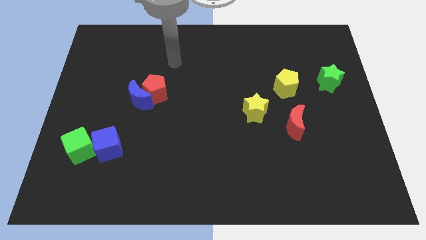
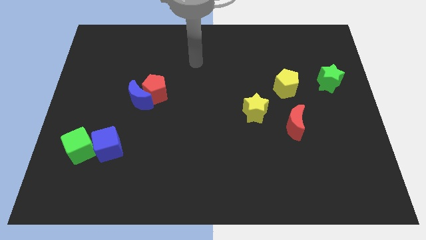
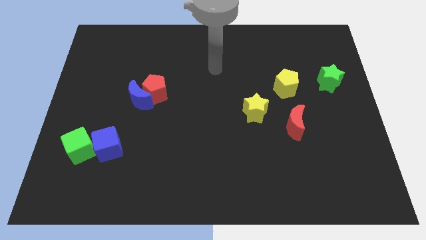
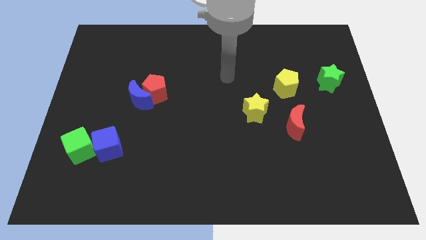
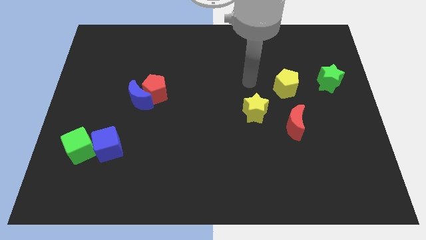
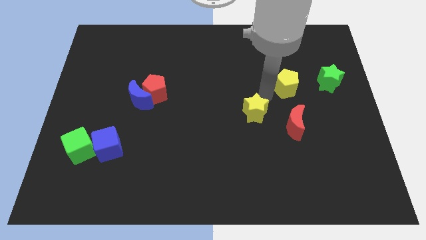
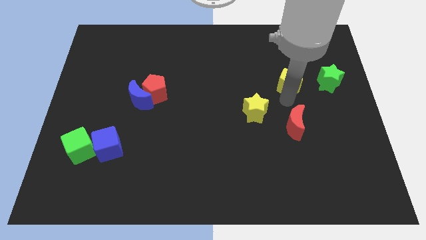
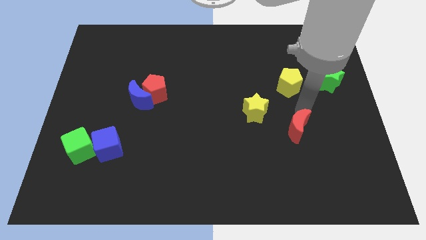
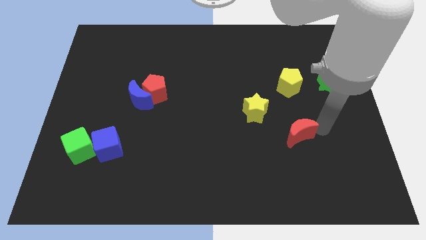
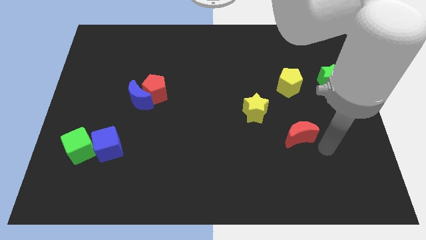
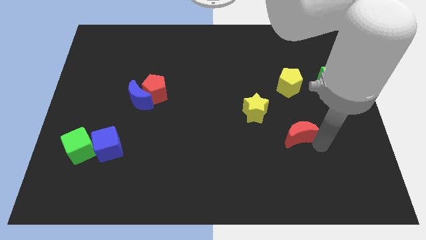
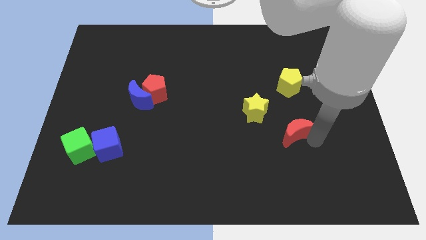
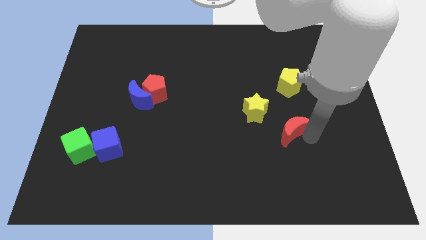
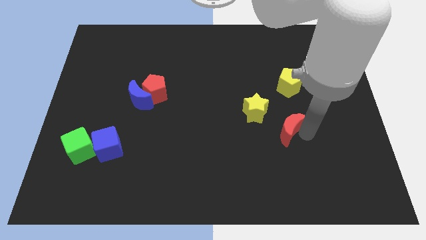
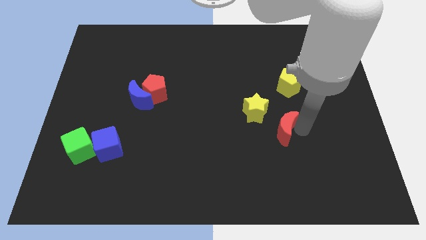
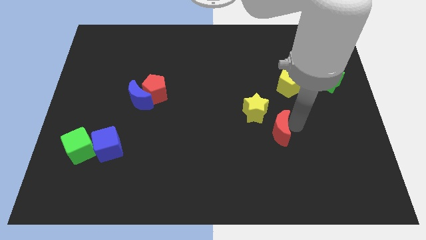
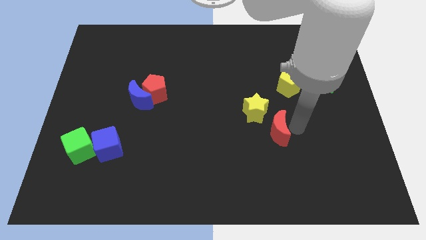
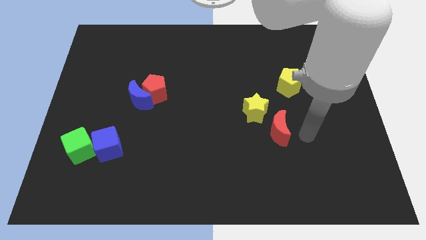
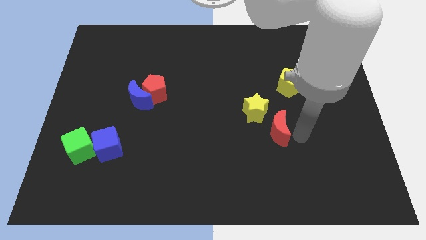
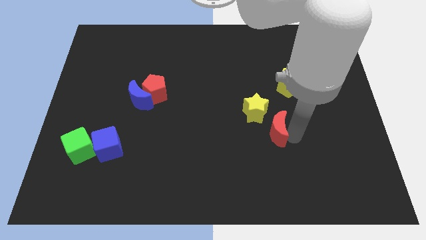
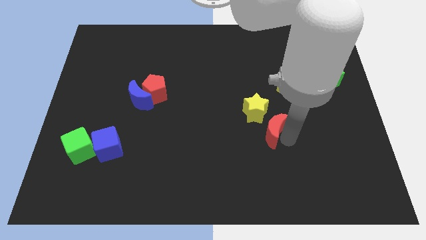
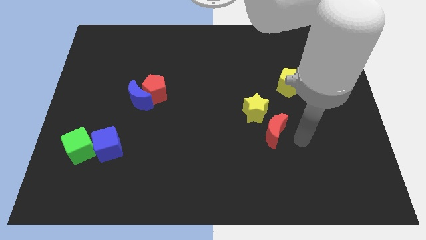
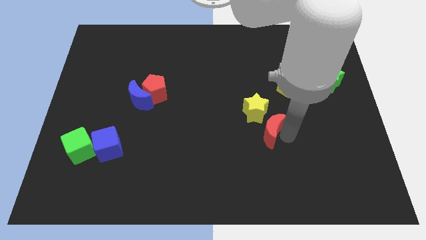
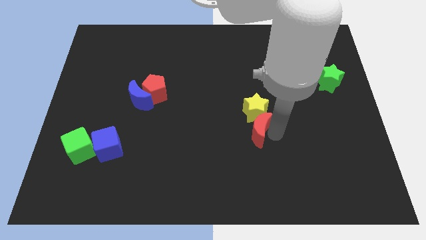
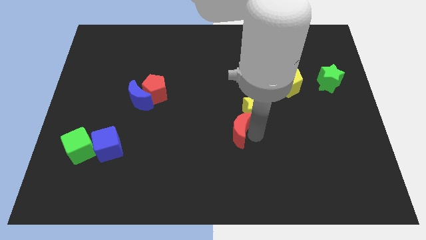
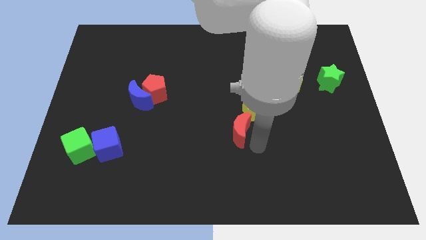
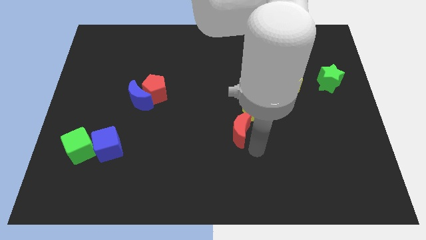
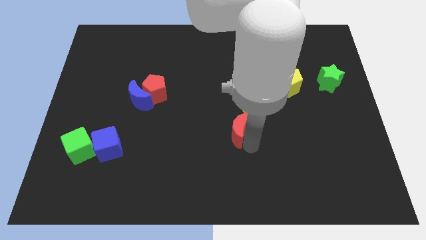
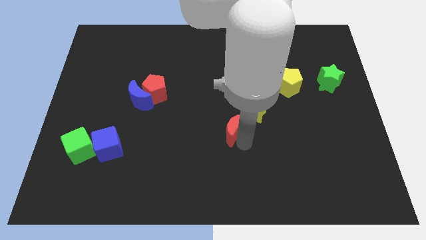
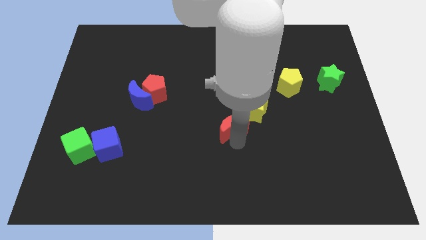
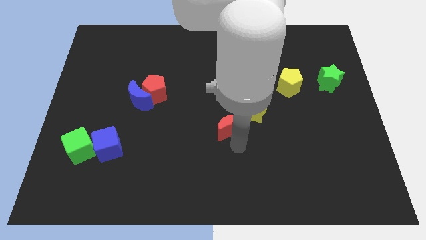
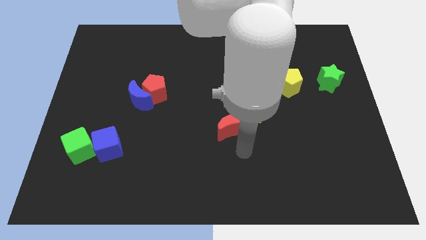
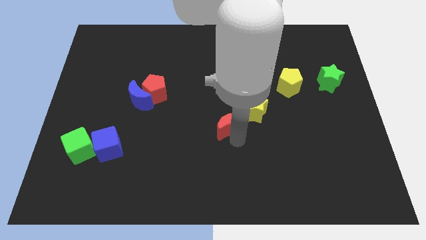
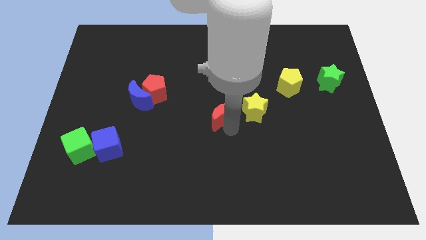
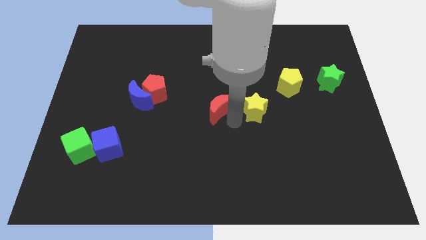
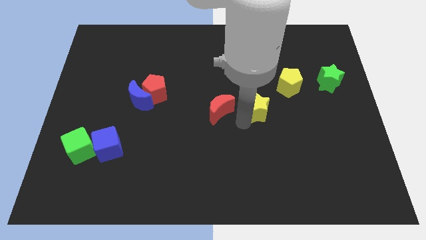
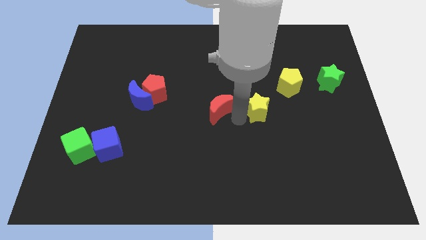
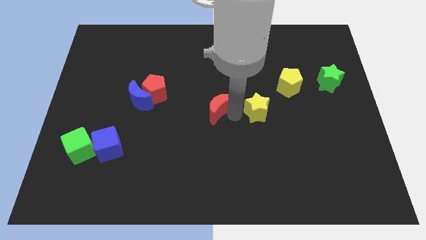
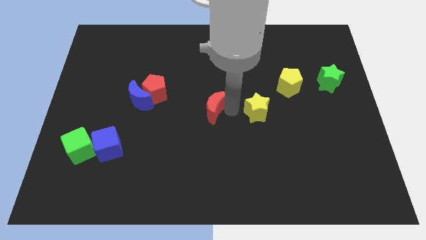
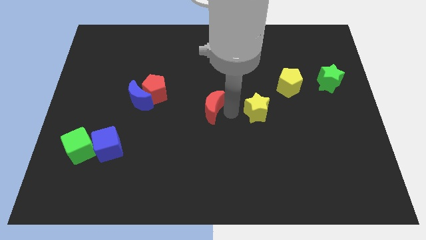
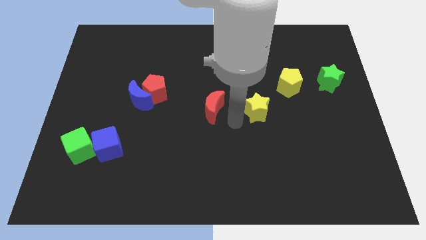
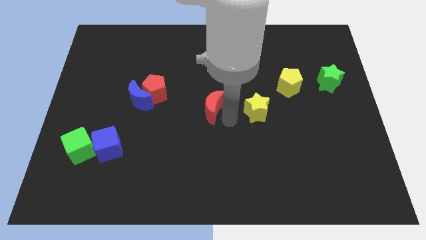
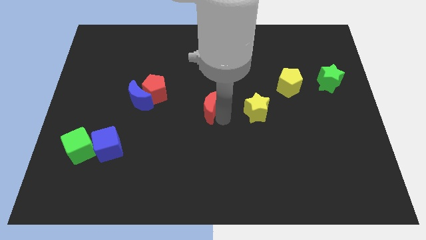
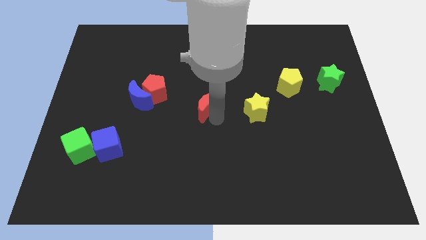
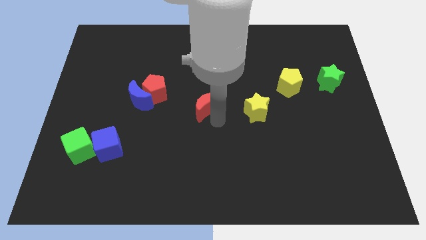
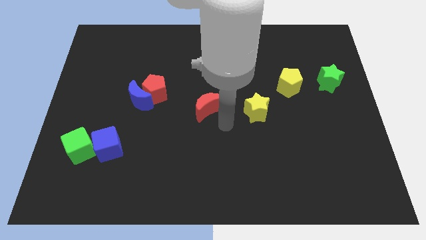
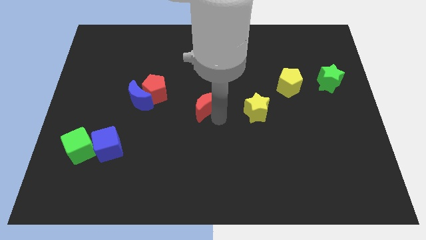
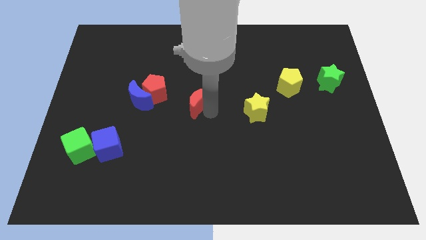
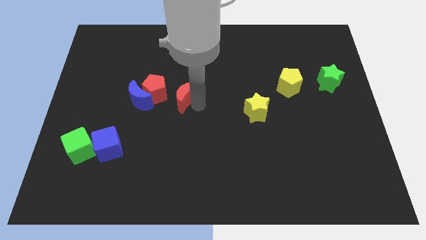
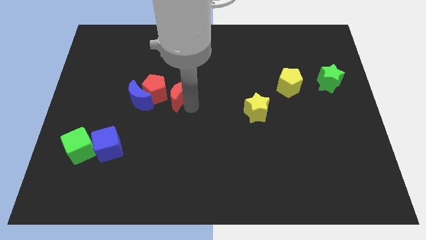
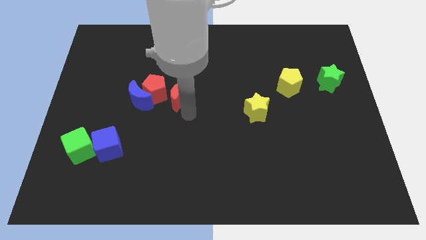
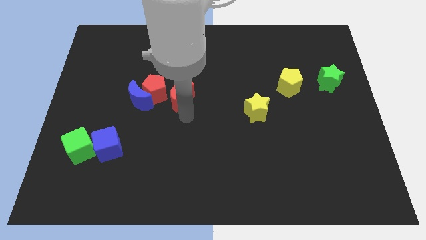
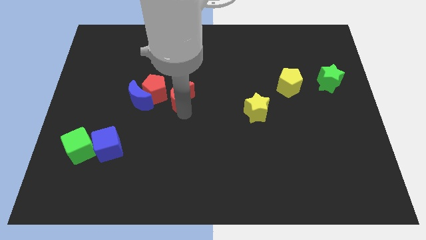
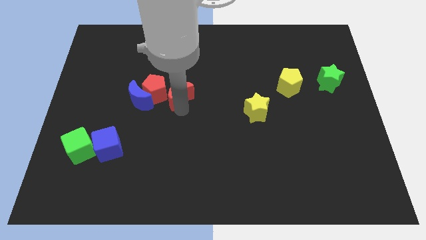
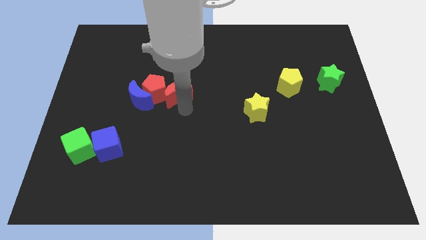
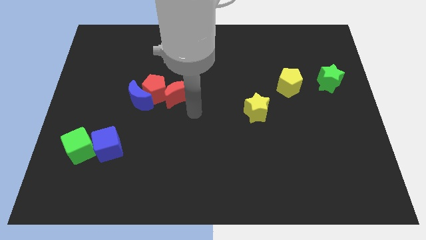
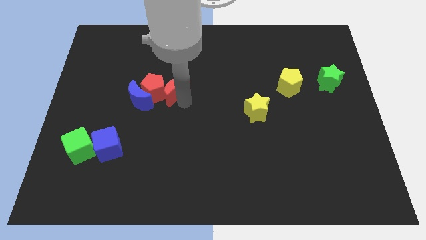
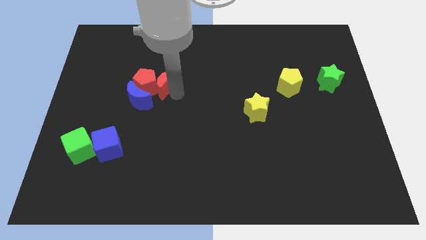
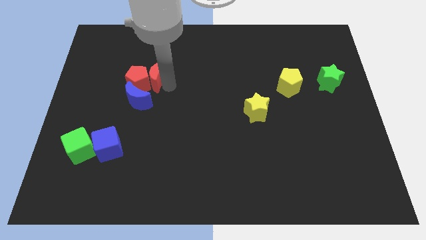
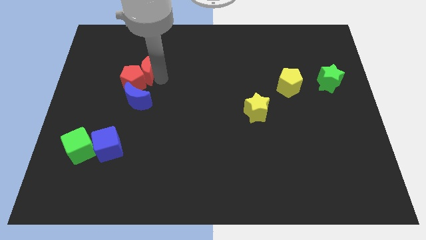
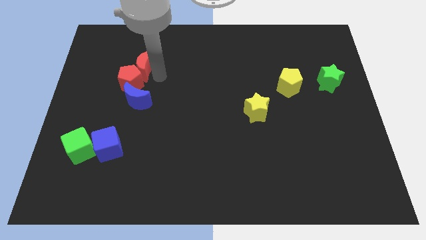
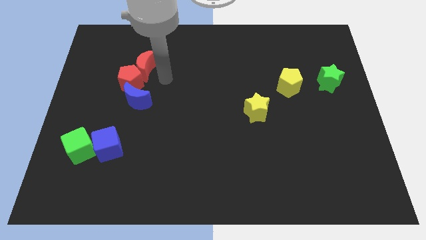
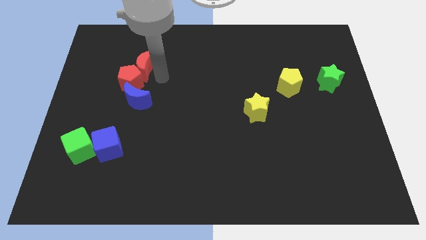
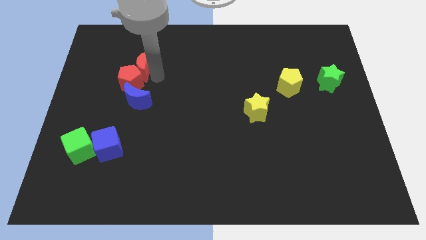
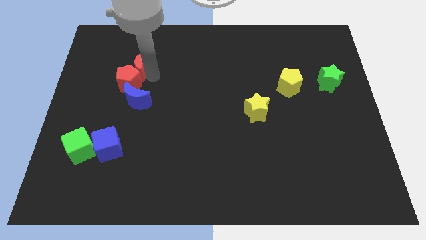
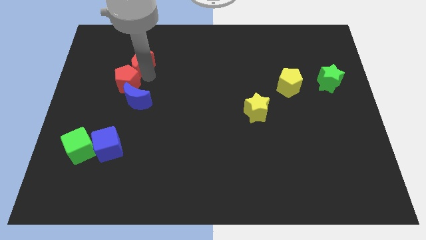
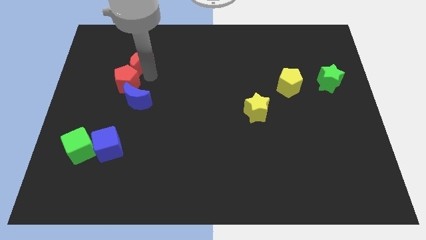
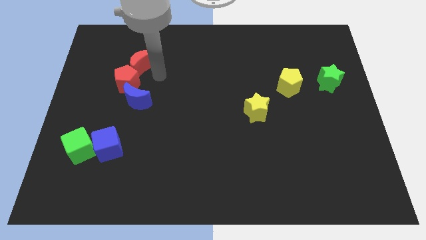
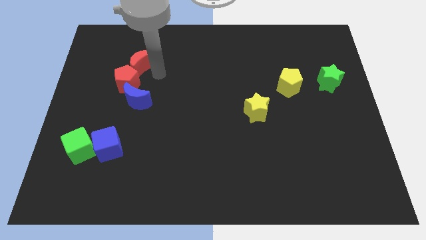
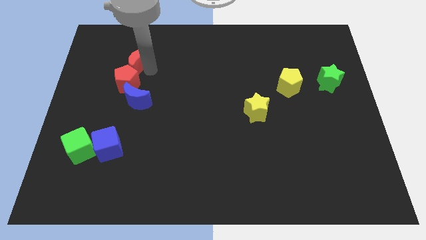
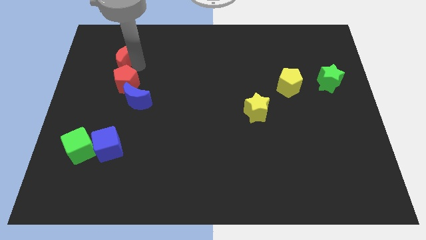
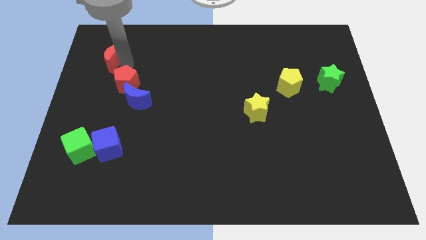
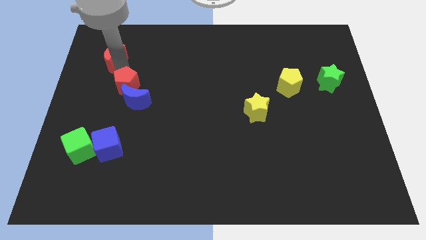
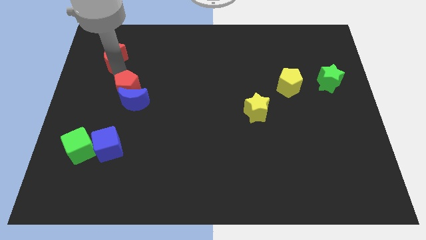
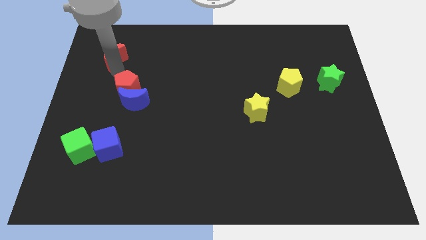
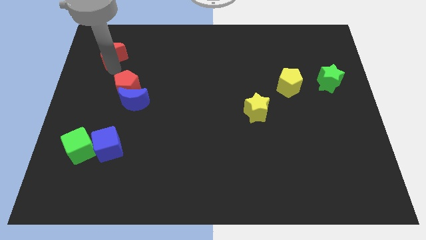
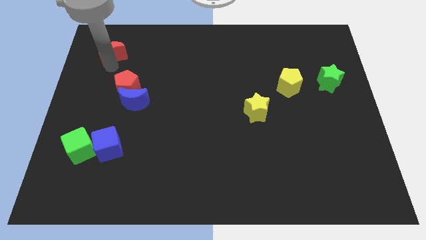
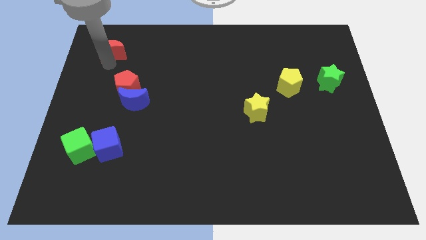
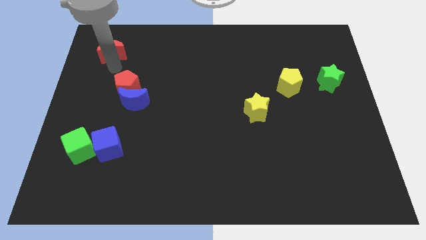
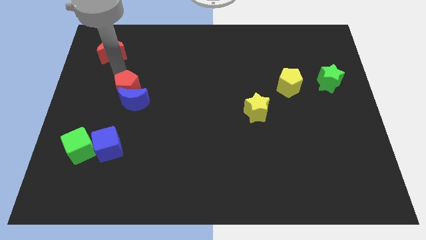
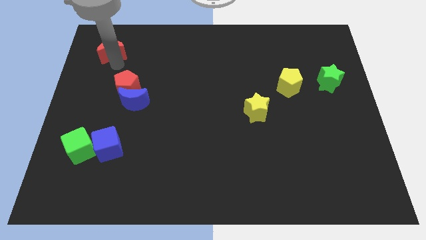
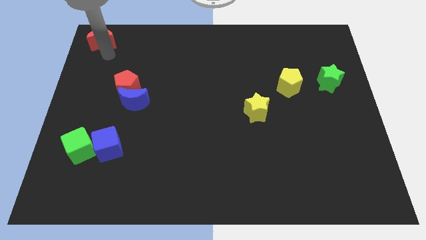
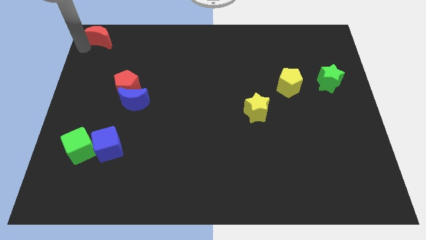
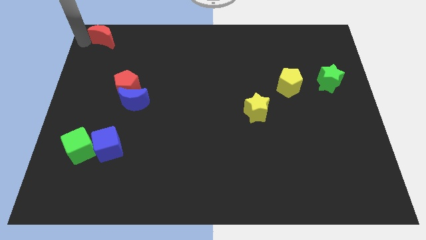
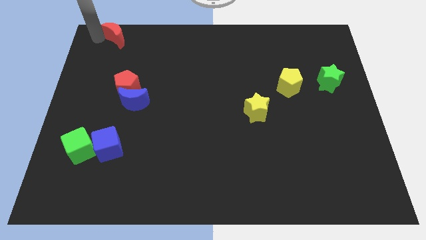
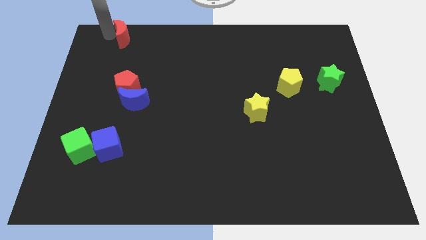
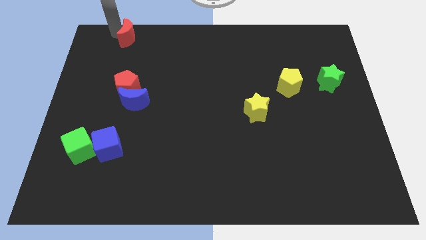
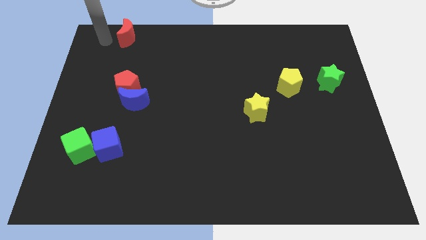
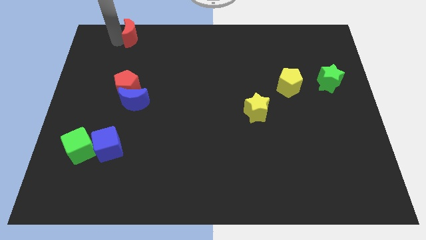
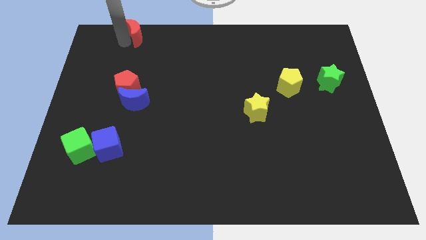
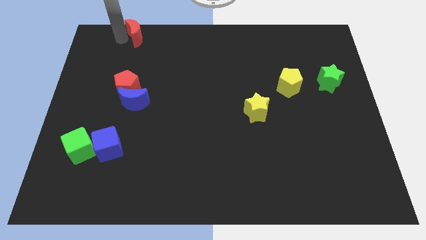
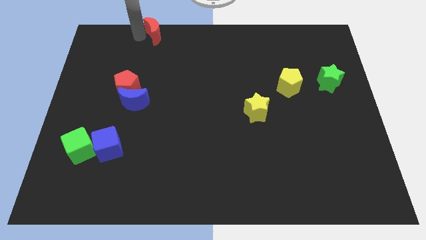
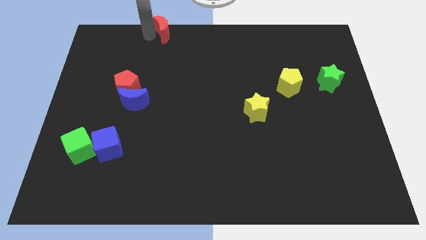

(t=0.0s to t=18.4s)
put the red moon to the top side
